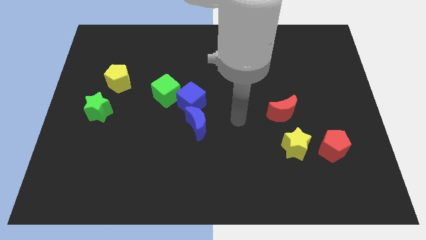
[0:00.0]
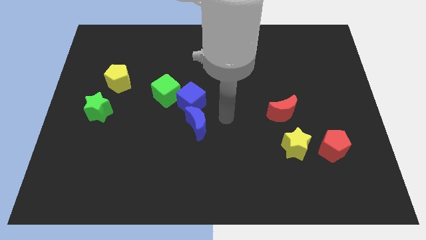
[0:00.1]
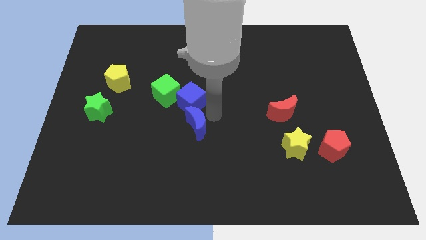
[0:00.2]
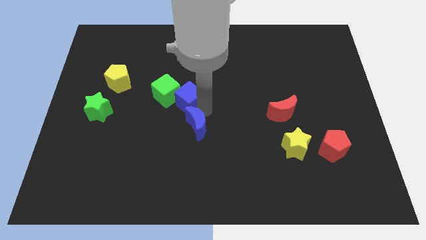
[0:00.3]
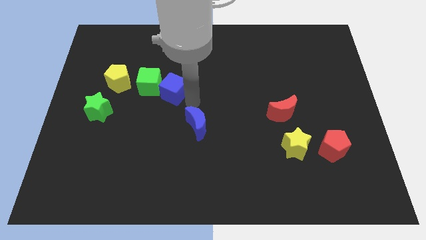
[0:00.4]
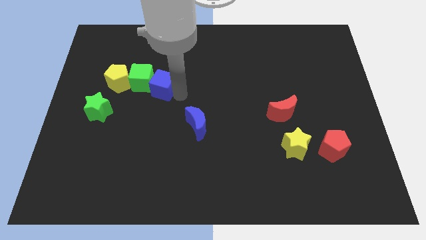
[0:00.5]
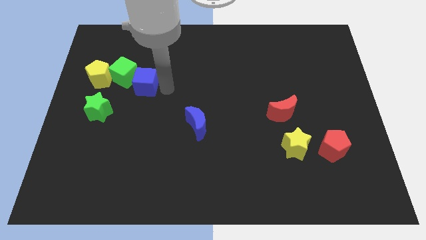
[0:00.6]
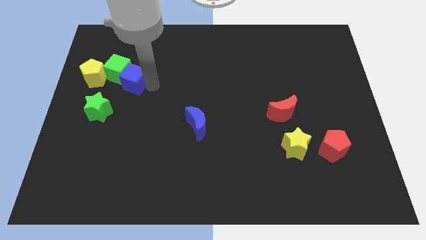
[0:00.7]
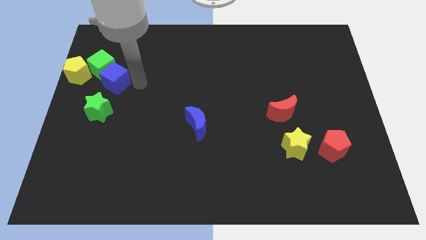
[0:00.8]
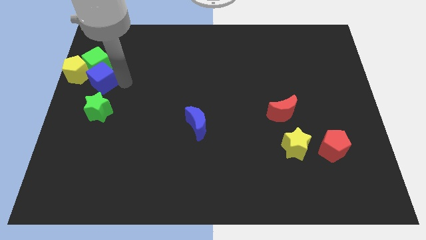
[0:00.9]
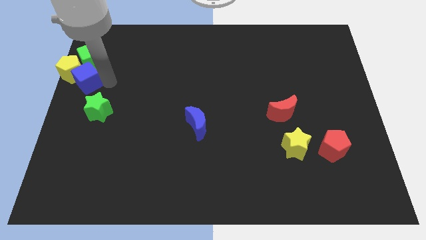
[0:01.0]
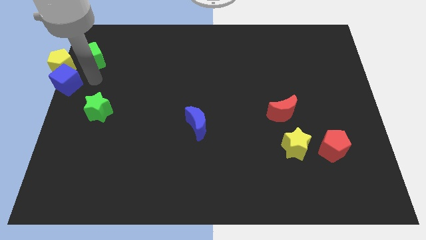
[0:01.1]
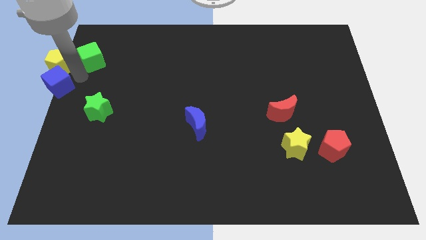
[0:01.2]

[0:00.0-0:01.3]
move the green cube away from the blue cube

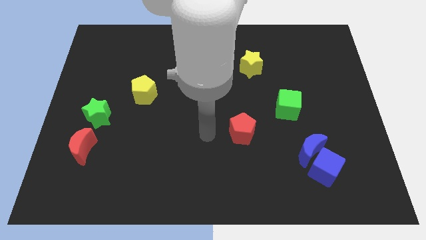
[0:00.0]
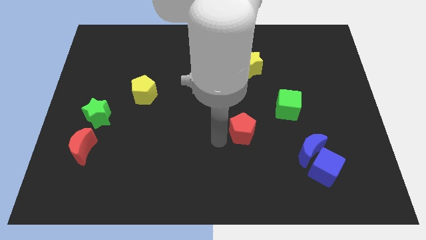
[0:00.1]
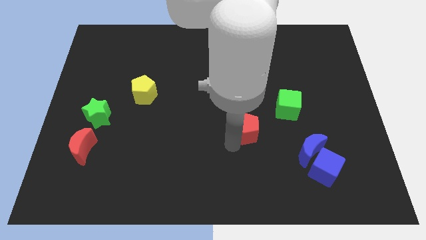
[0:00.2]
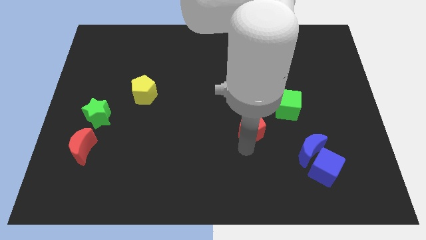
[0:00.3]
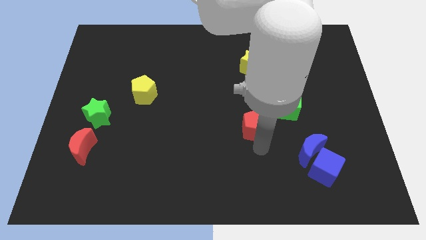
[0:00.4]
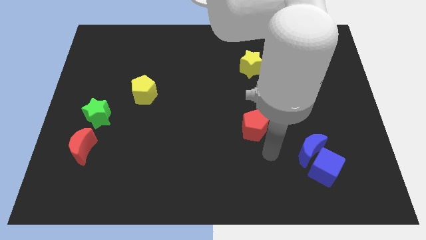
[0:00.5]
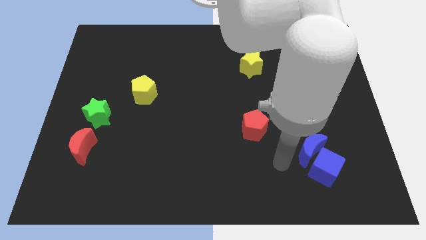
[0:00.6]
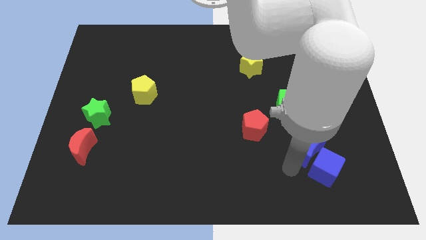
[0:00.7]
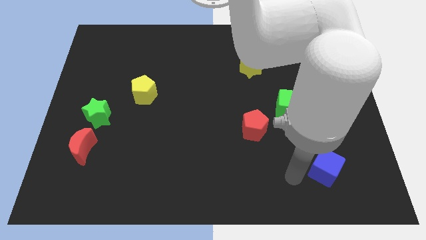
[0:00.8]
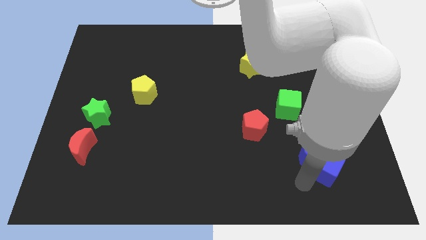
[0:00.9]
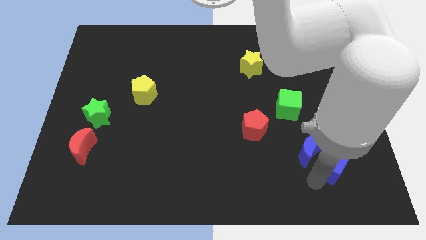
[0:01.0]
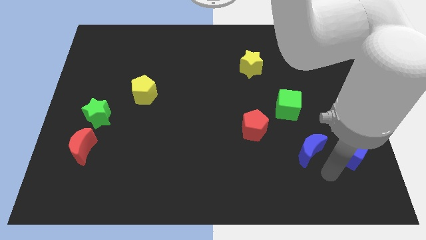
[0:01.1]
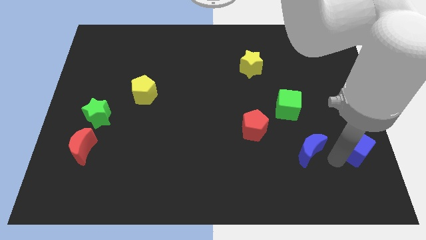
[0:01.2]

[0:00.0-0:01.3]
separate the blue moon from the blue cube

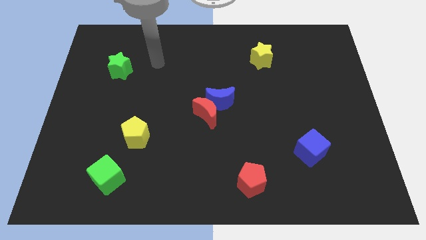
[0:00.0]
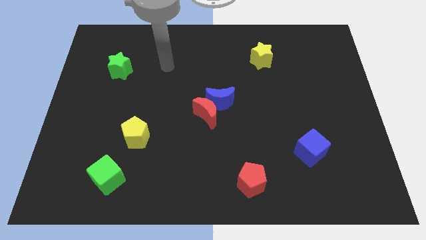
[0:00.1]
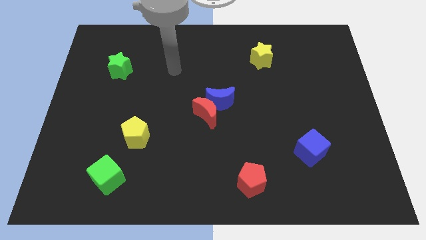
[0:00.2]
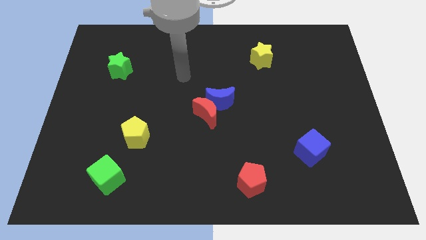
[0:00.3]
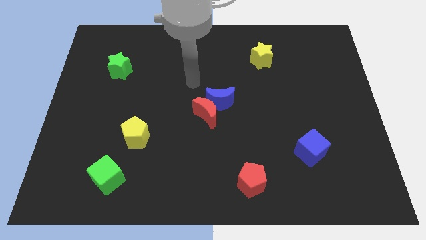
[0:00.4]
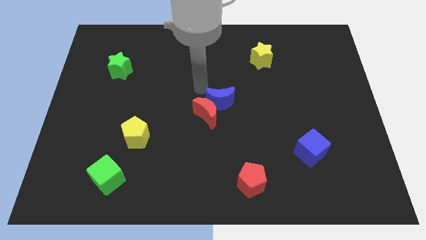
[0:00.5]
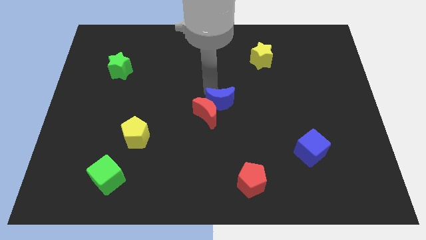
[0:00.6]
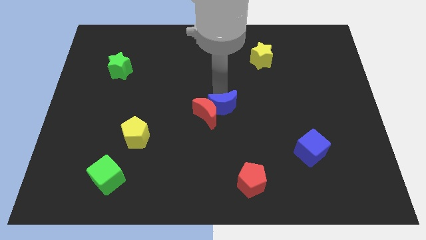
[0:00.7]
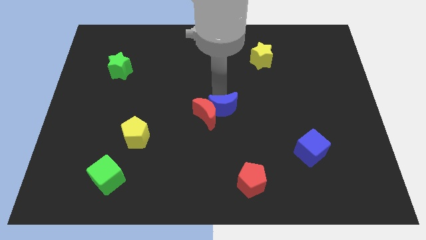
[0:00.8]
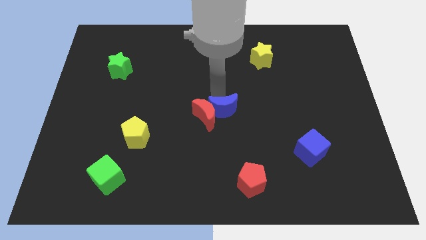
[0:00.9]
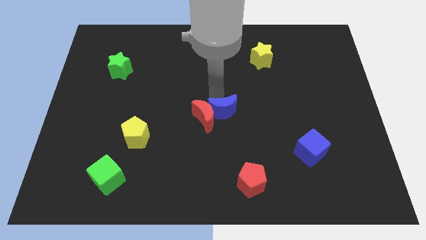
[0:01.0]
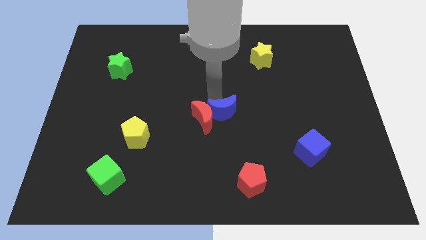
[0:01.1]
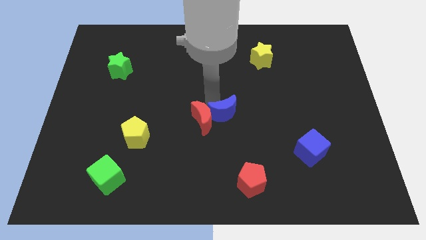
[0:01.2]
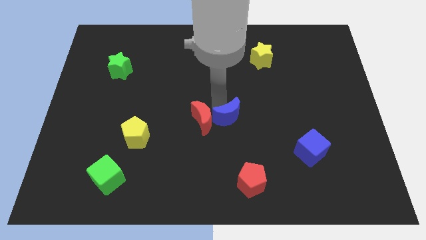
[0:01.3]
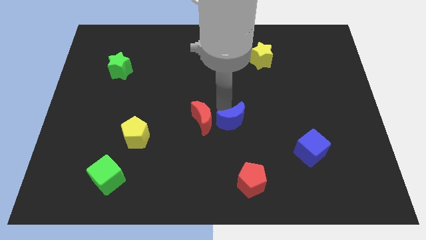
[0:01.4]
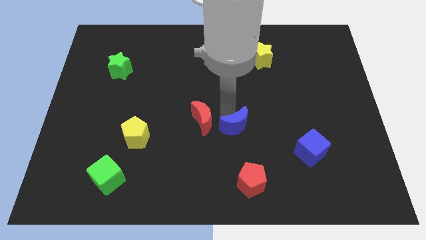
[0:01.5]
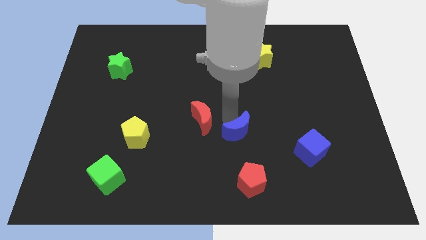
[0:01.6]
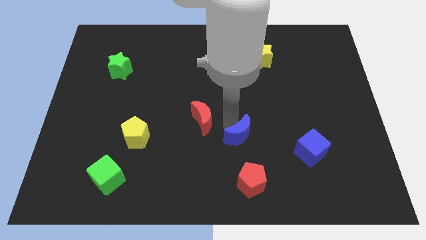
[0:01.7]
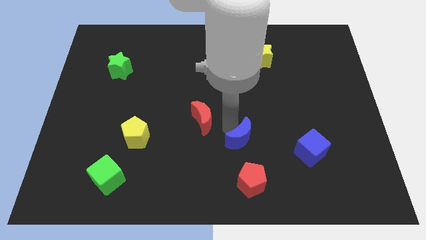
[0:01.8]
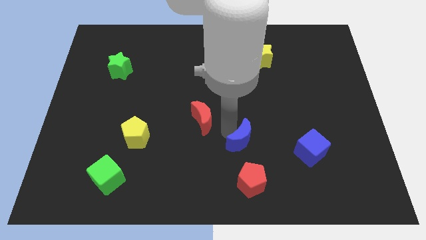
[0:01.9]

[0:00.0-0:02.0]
move the red moon away from the blue moon

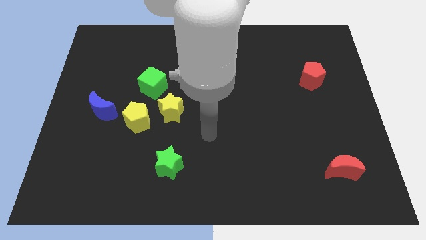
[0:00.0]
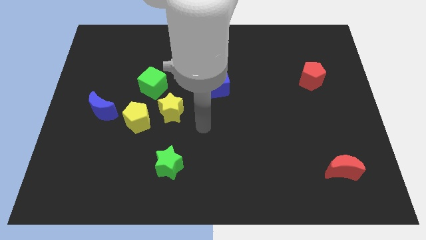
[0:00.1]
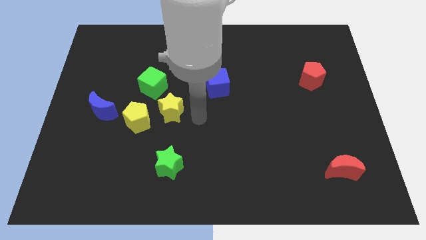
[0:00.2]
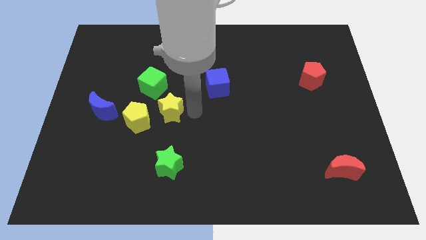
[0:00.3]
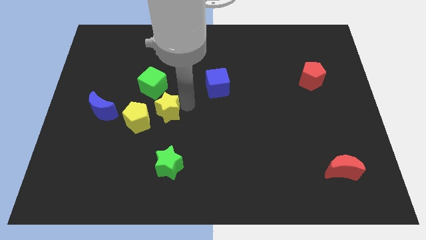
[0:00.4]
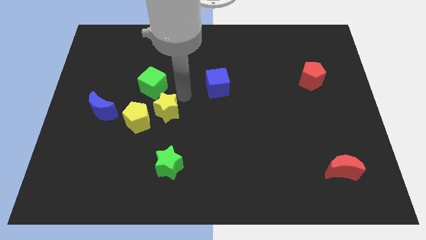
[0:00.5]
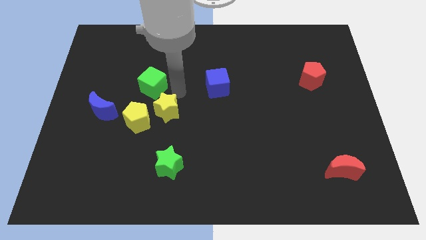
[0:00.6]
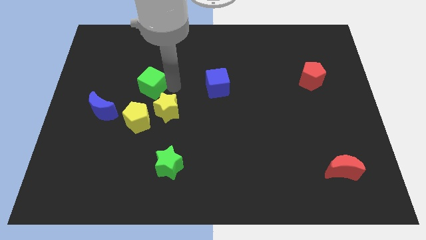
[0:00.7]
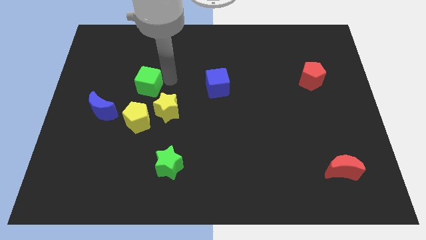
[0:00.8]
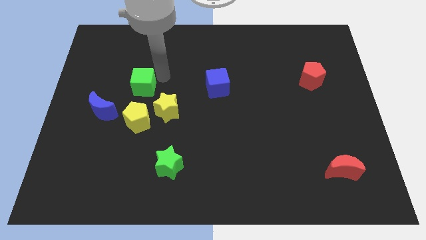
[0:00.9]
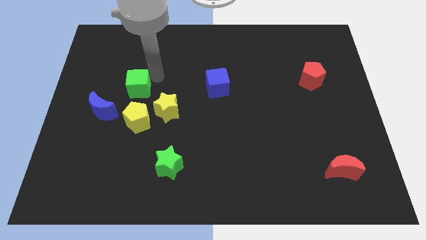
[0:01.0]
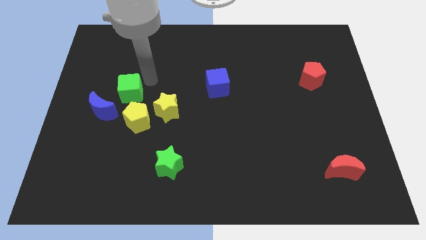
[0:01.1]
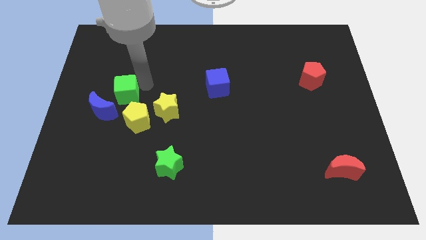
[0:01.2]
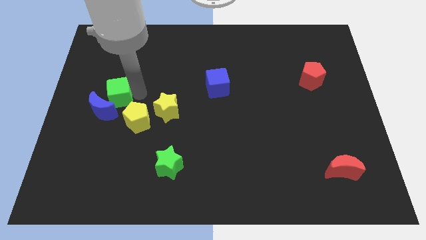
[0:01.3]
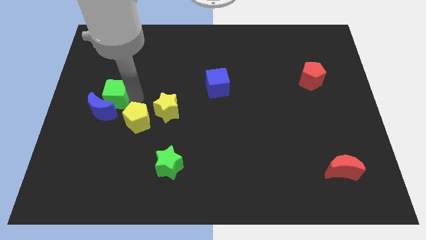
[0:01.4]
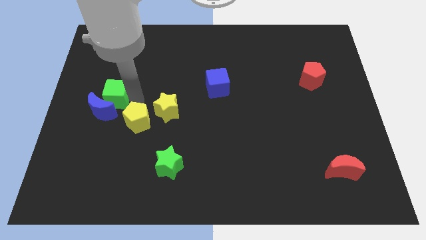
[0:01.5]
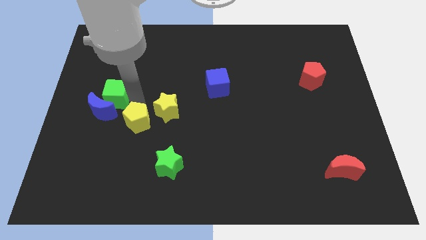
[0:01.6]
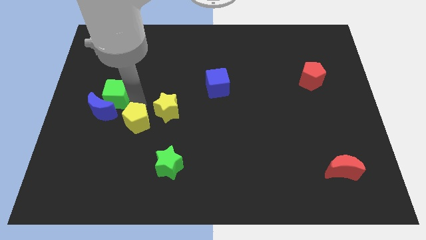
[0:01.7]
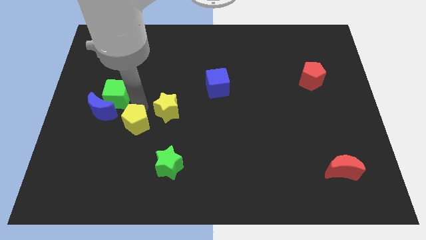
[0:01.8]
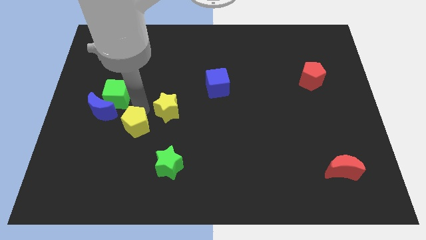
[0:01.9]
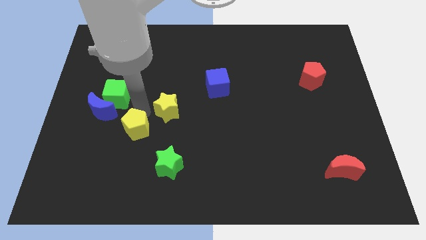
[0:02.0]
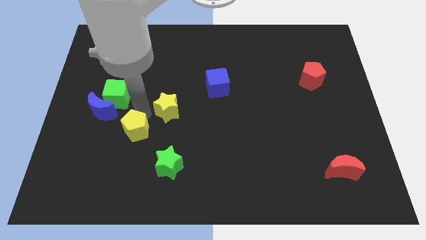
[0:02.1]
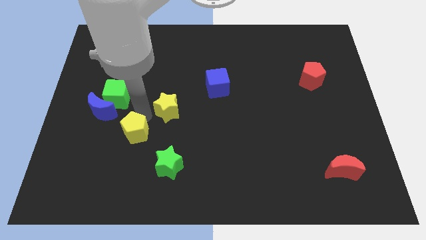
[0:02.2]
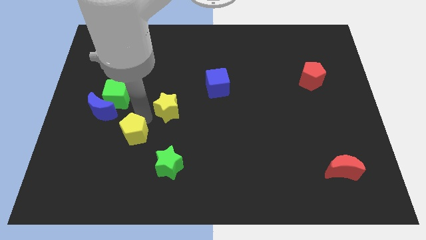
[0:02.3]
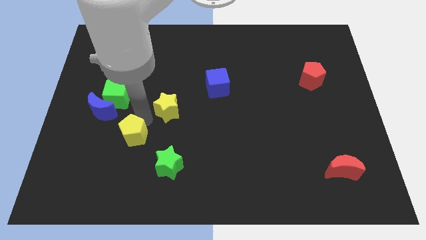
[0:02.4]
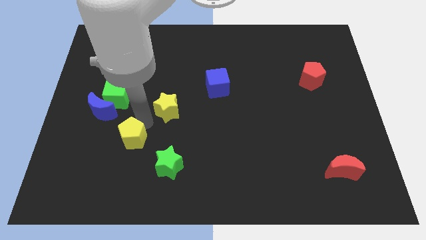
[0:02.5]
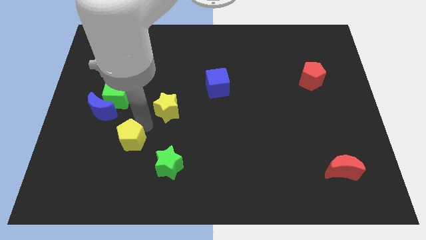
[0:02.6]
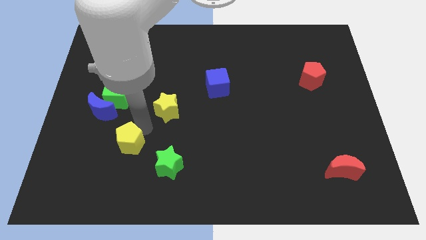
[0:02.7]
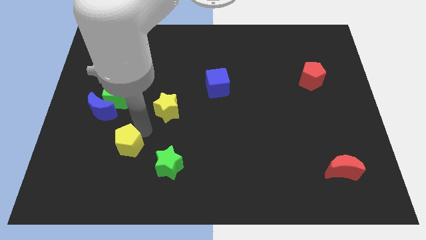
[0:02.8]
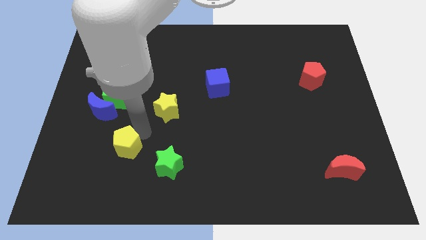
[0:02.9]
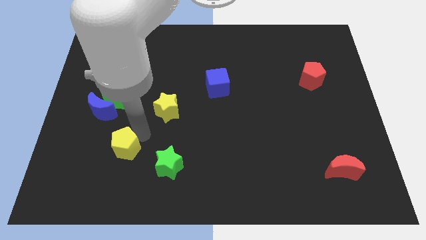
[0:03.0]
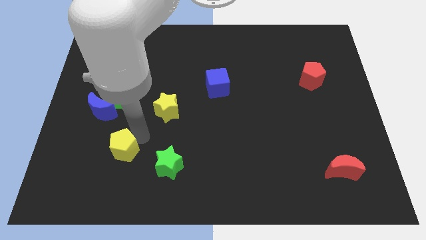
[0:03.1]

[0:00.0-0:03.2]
separate the yellow pentagon from the yellow star and blue moon

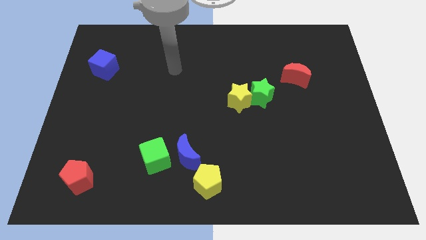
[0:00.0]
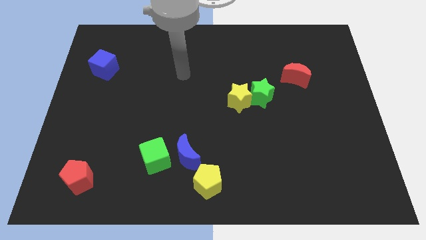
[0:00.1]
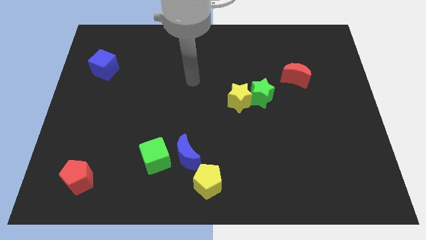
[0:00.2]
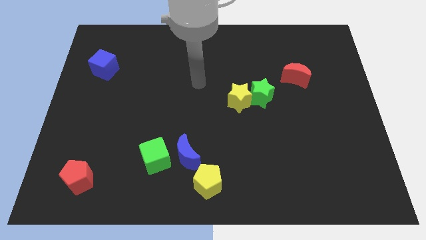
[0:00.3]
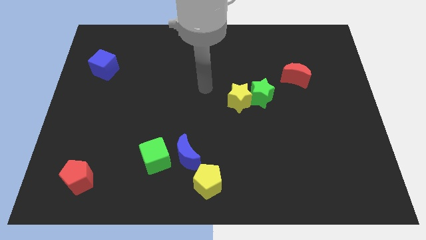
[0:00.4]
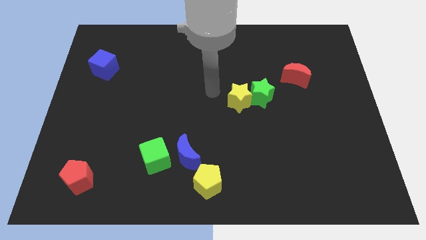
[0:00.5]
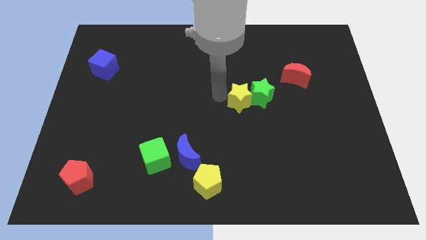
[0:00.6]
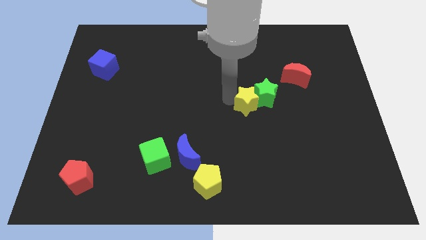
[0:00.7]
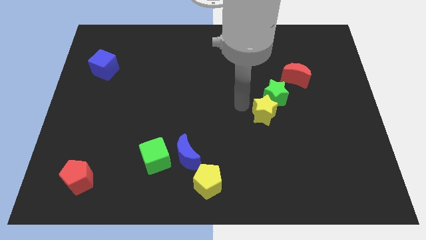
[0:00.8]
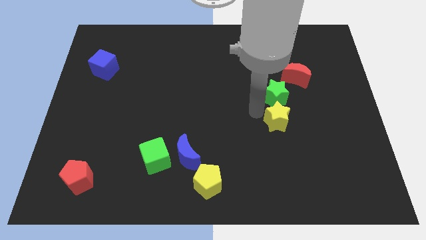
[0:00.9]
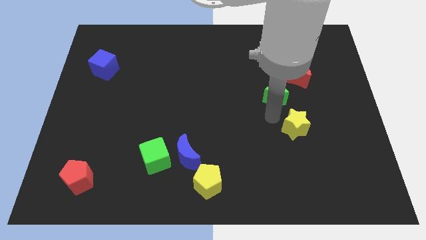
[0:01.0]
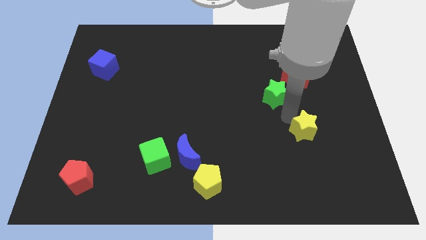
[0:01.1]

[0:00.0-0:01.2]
move the green star away from the yellow star

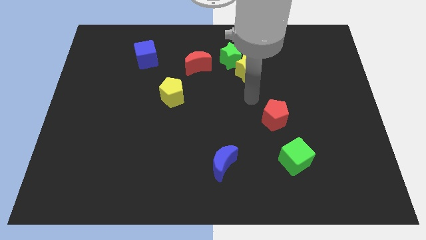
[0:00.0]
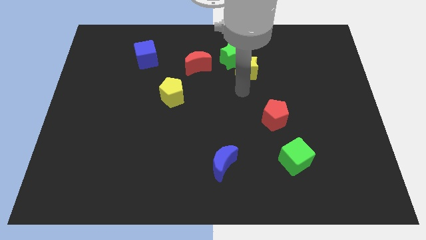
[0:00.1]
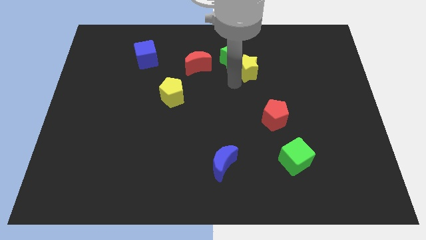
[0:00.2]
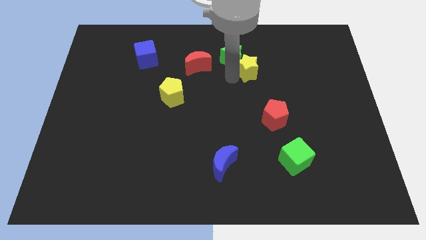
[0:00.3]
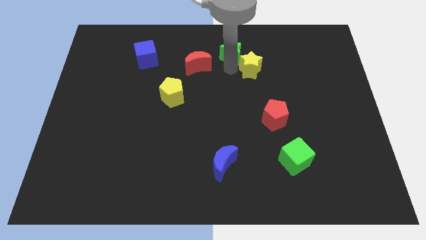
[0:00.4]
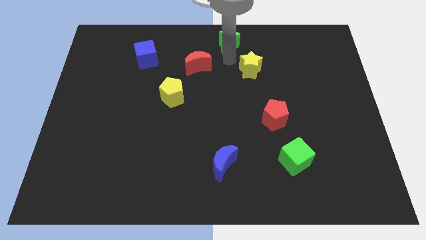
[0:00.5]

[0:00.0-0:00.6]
separate the yellow star from the green star
